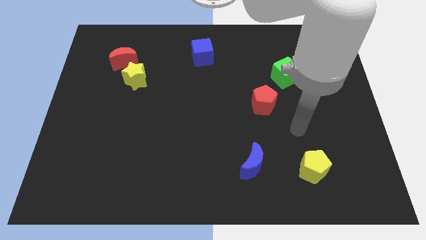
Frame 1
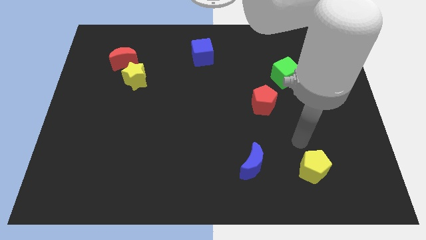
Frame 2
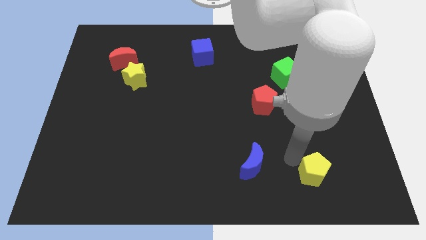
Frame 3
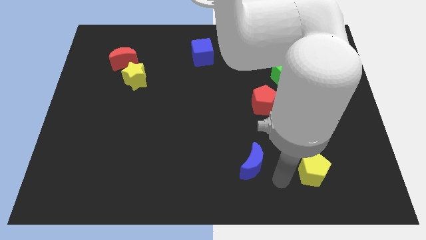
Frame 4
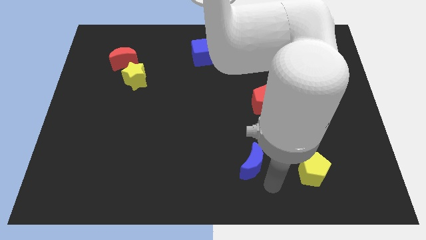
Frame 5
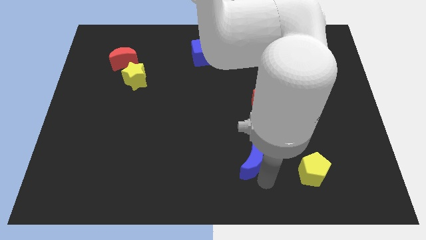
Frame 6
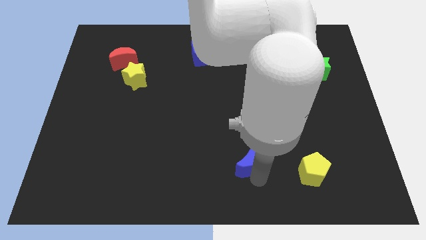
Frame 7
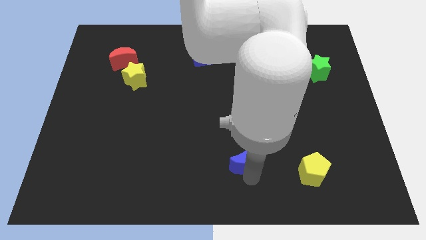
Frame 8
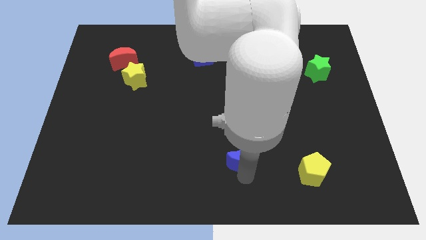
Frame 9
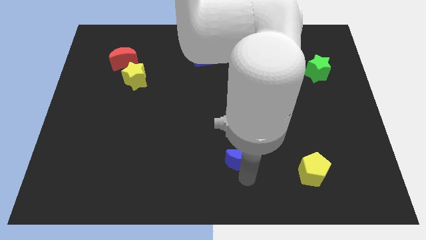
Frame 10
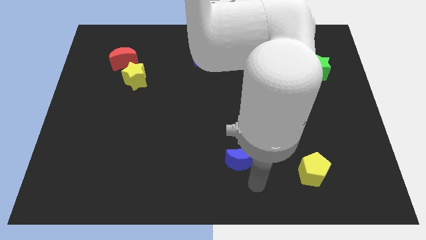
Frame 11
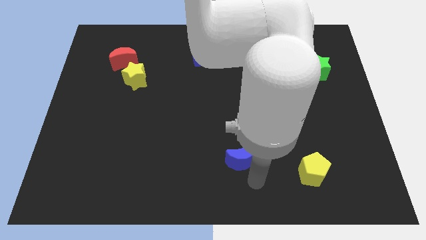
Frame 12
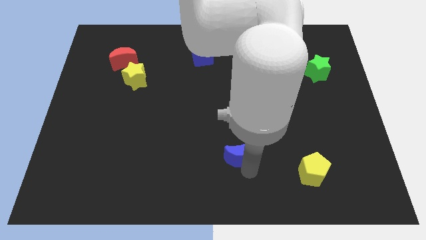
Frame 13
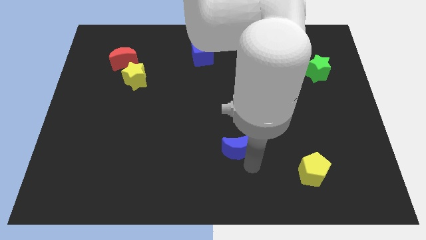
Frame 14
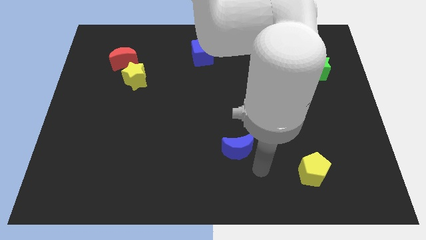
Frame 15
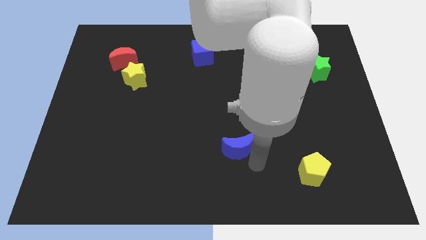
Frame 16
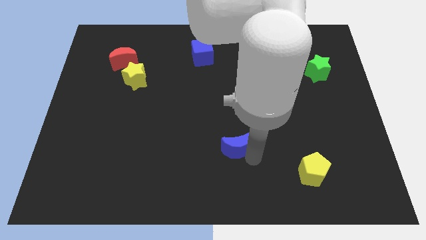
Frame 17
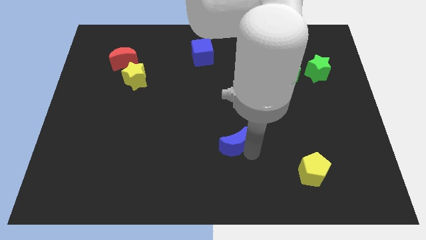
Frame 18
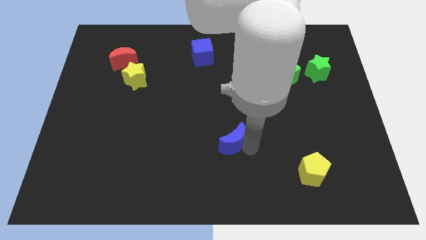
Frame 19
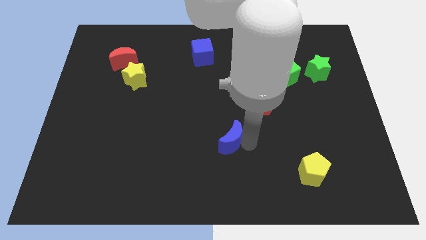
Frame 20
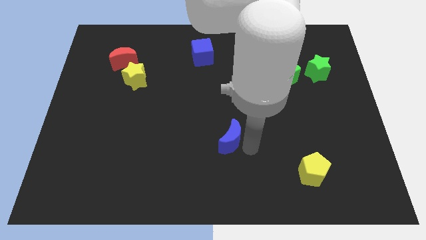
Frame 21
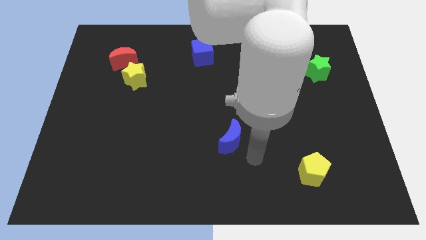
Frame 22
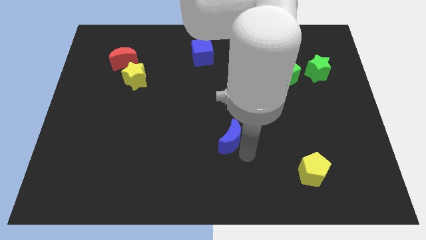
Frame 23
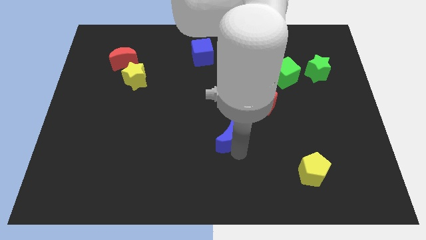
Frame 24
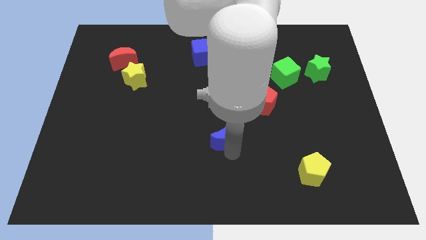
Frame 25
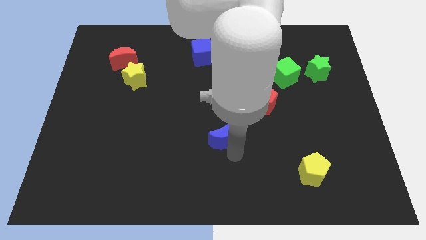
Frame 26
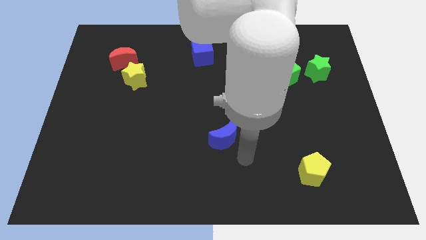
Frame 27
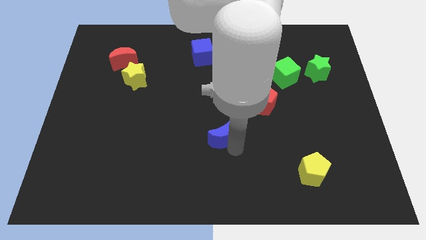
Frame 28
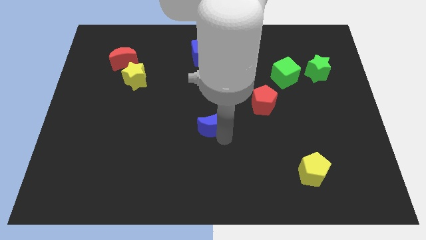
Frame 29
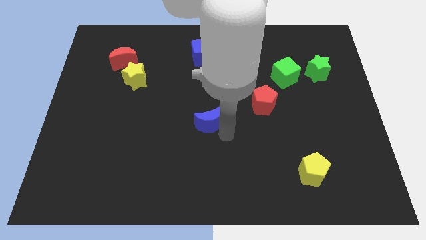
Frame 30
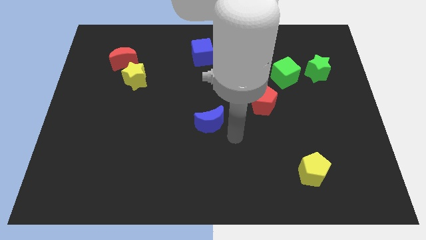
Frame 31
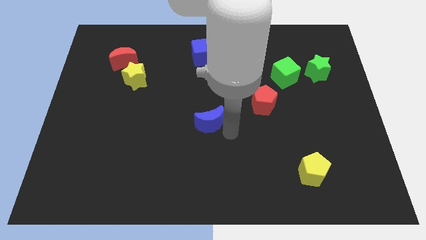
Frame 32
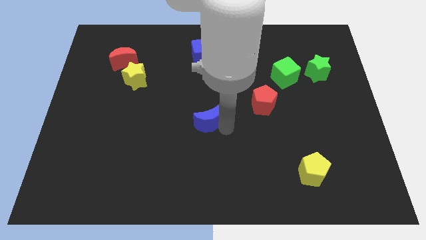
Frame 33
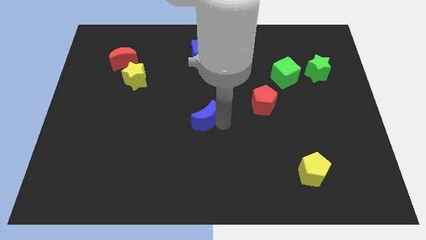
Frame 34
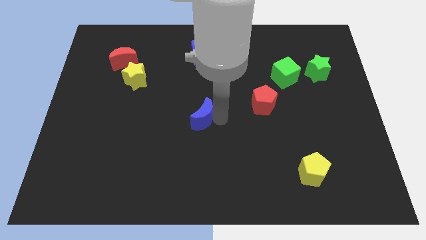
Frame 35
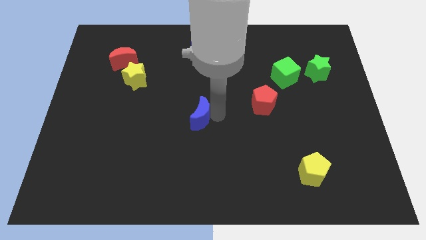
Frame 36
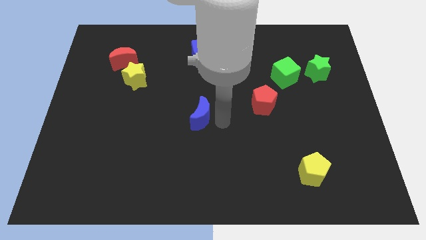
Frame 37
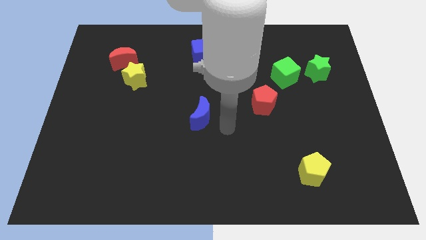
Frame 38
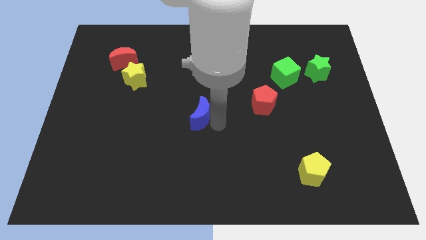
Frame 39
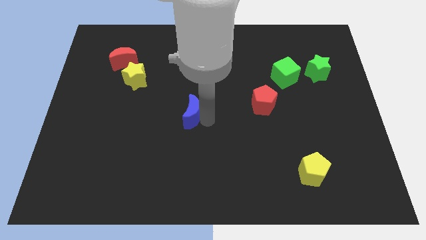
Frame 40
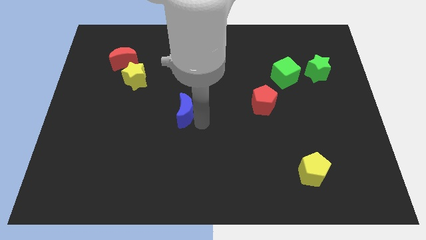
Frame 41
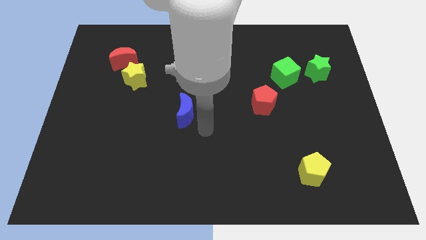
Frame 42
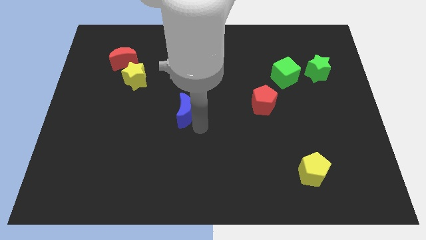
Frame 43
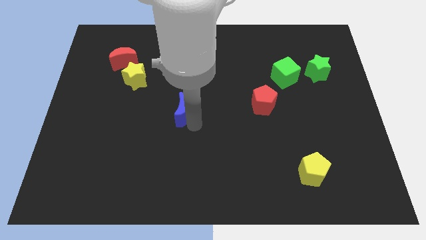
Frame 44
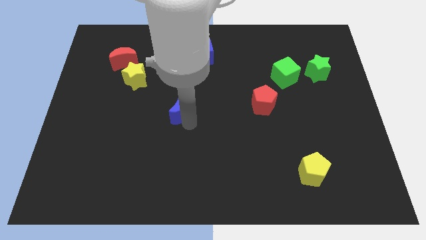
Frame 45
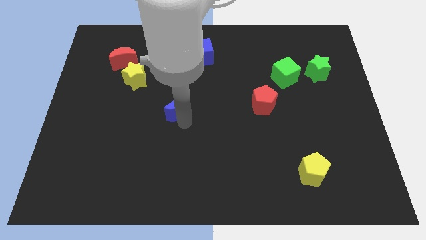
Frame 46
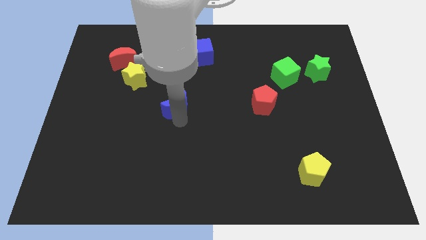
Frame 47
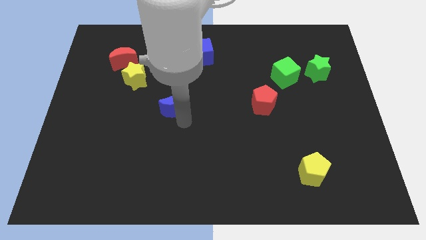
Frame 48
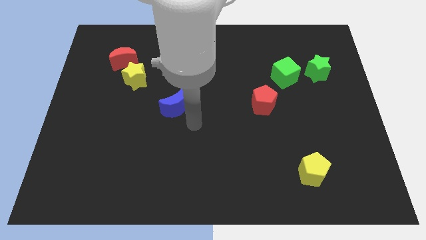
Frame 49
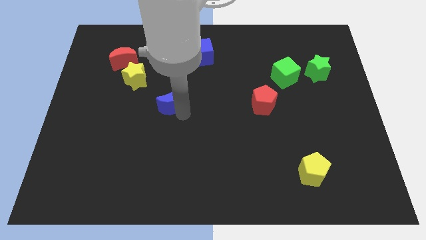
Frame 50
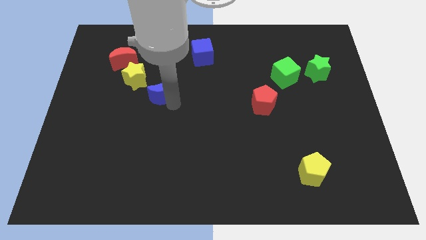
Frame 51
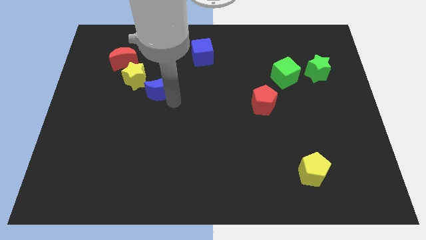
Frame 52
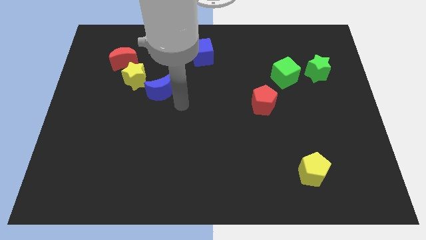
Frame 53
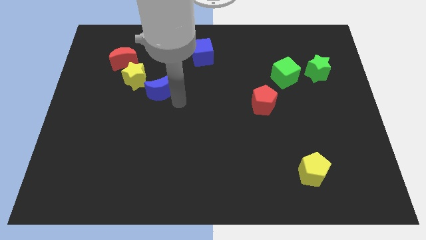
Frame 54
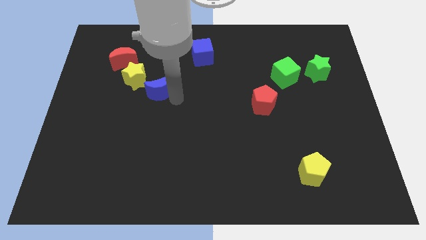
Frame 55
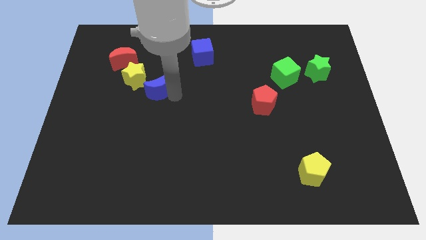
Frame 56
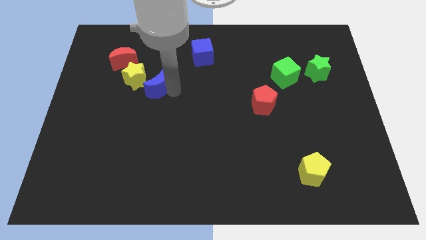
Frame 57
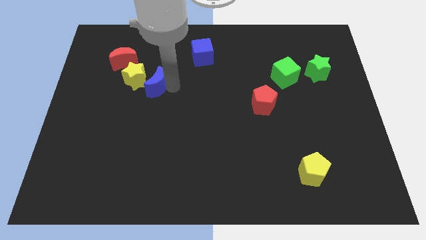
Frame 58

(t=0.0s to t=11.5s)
move the blue moon close to the yellow star
